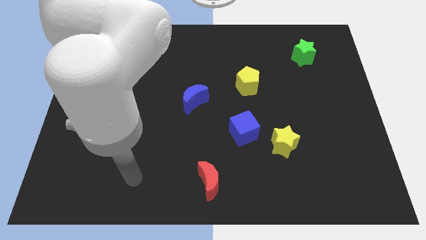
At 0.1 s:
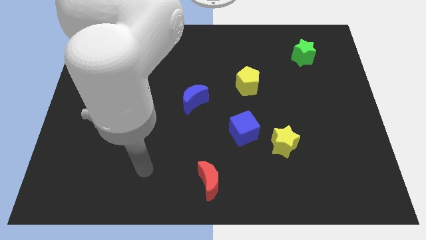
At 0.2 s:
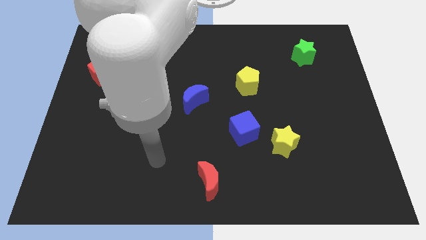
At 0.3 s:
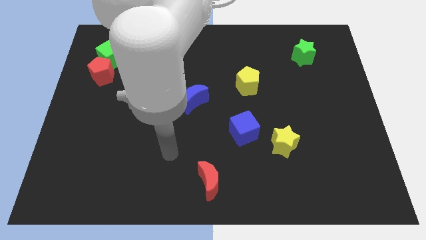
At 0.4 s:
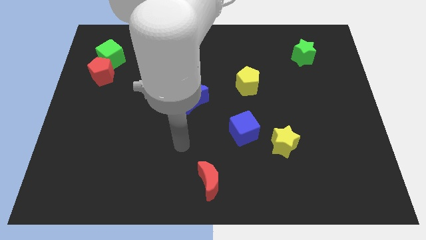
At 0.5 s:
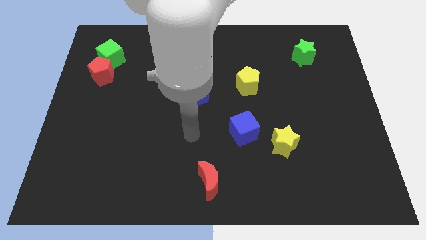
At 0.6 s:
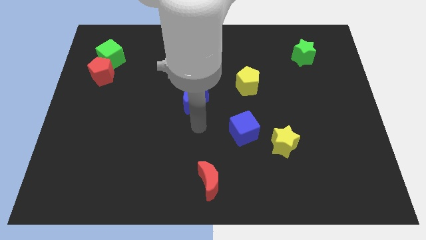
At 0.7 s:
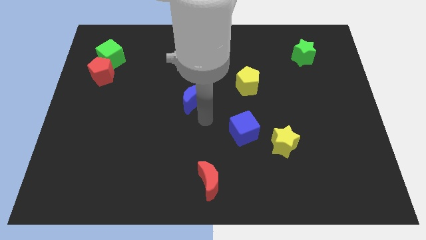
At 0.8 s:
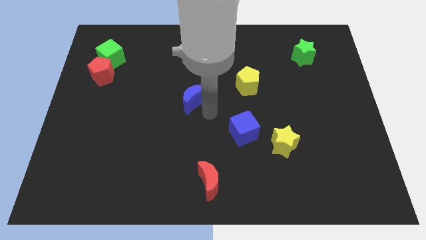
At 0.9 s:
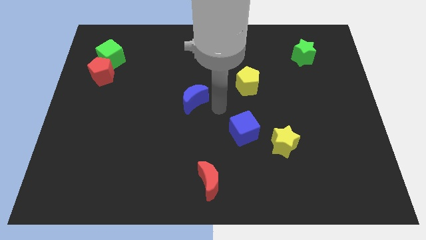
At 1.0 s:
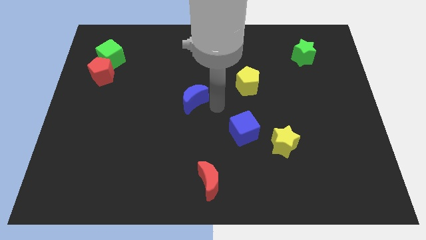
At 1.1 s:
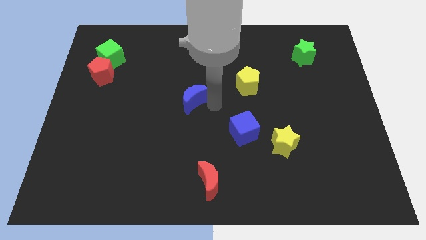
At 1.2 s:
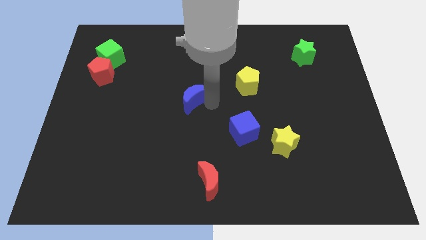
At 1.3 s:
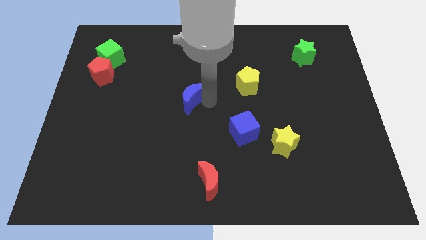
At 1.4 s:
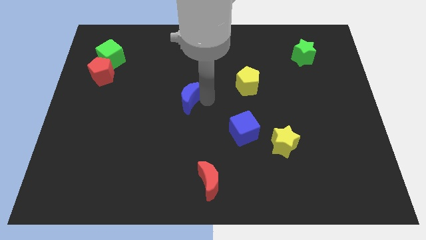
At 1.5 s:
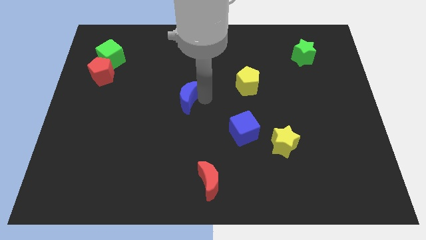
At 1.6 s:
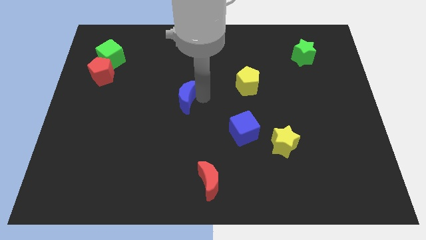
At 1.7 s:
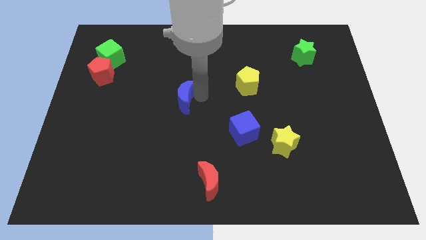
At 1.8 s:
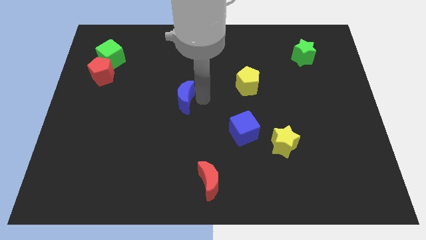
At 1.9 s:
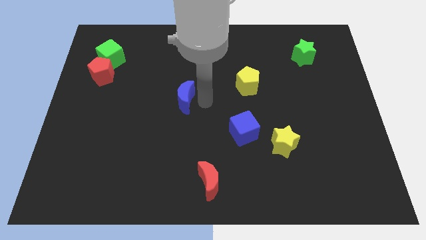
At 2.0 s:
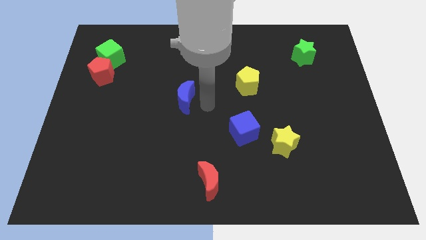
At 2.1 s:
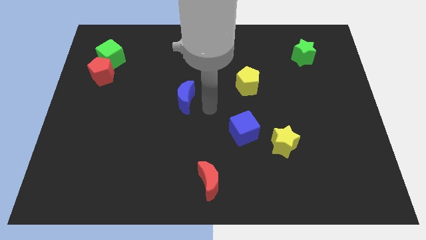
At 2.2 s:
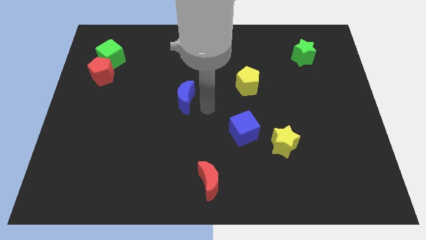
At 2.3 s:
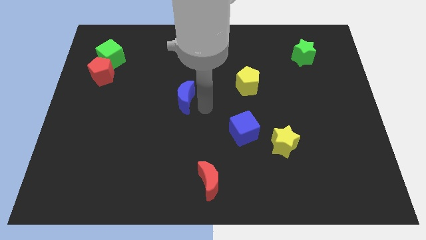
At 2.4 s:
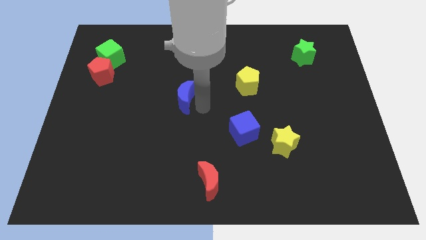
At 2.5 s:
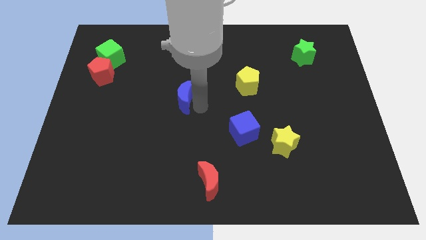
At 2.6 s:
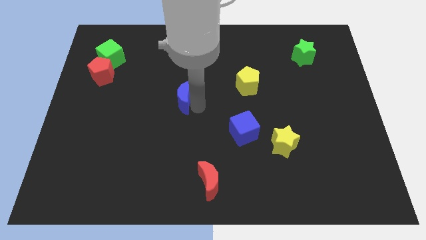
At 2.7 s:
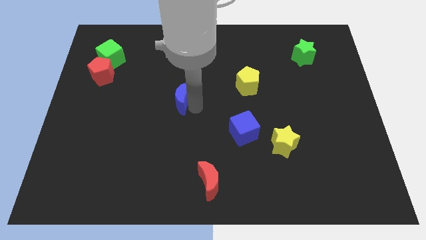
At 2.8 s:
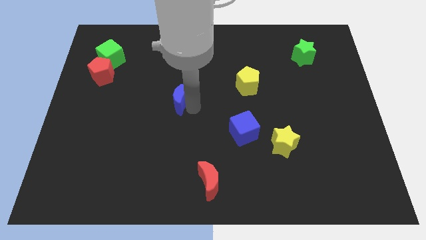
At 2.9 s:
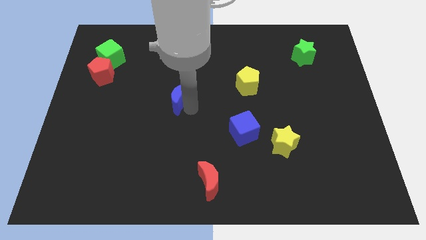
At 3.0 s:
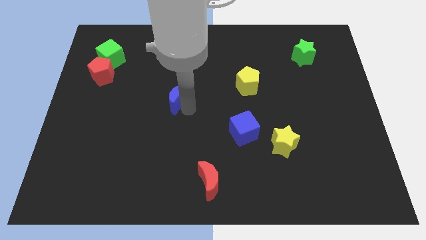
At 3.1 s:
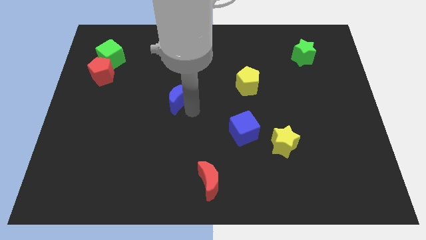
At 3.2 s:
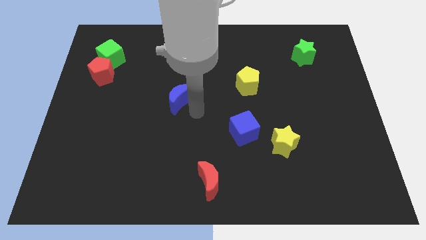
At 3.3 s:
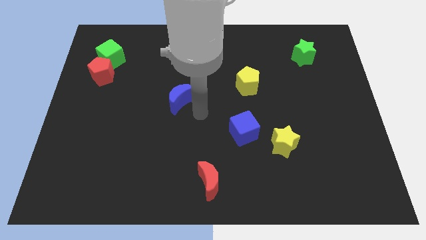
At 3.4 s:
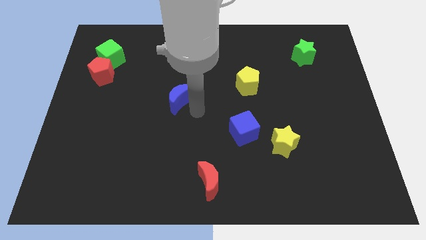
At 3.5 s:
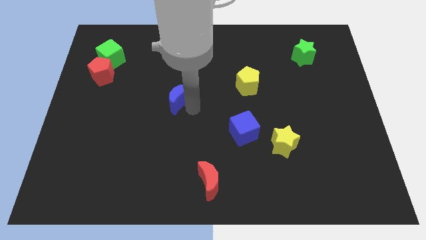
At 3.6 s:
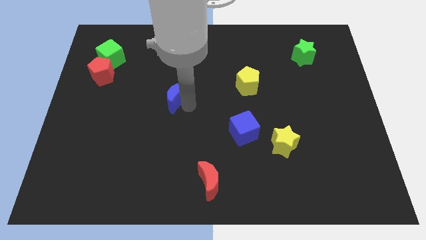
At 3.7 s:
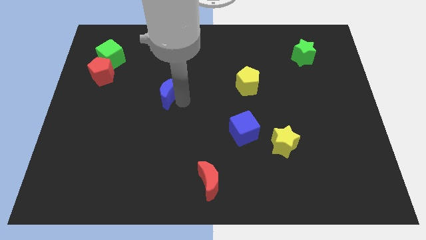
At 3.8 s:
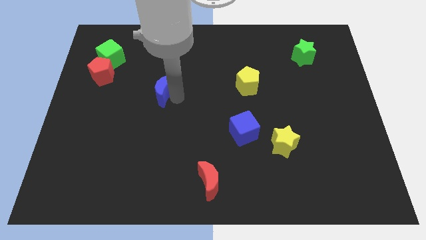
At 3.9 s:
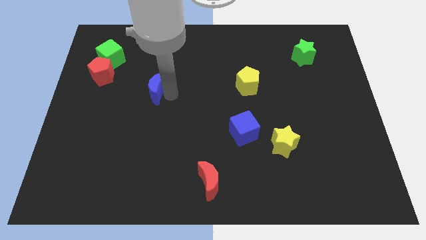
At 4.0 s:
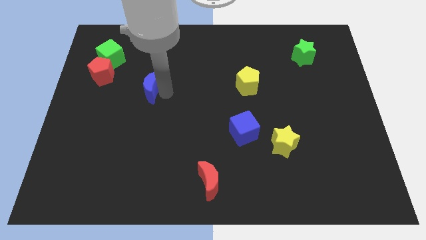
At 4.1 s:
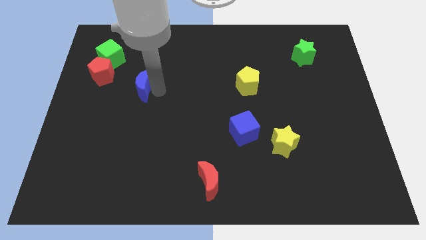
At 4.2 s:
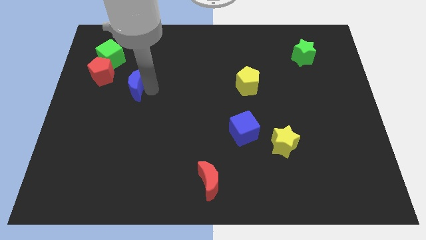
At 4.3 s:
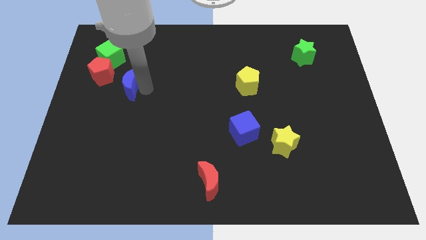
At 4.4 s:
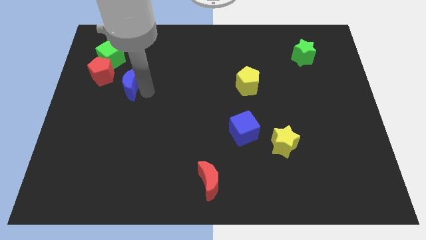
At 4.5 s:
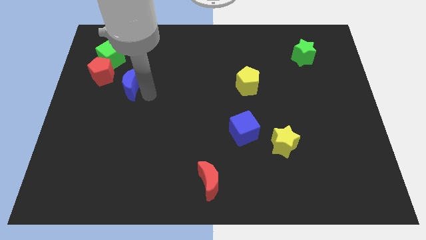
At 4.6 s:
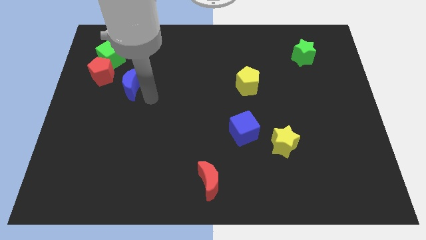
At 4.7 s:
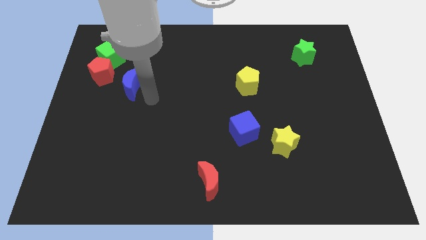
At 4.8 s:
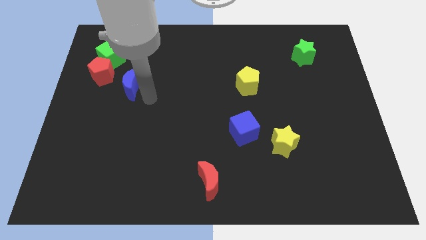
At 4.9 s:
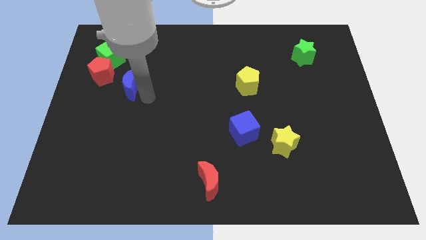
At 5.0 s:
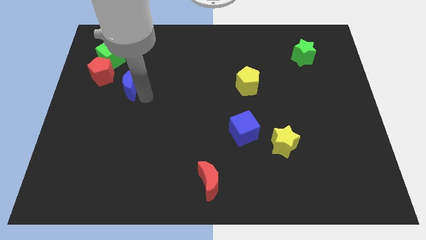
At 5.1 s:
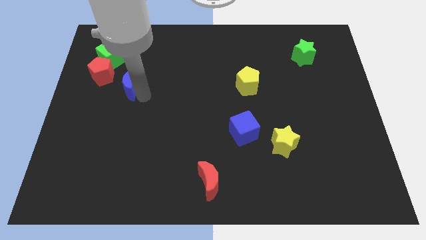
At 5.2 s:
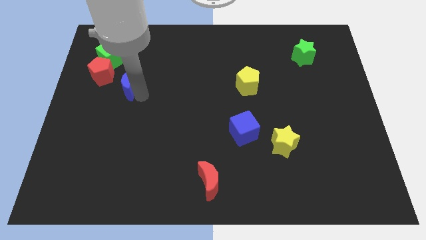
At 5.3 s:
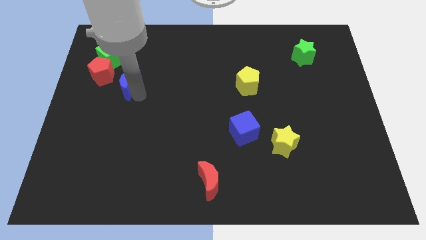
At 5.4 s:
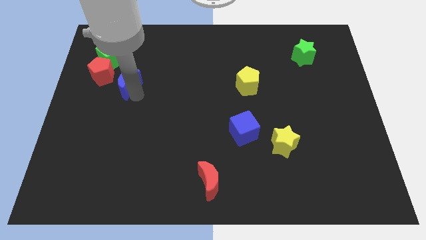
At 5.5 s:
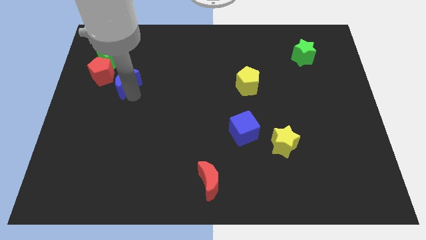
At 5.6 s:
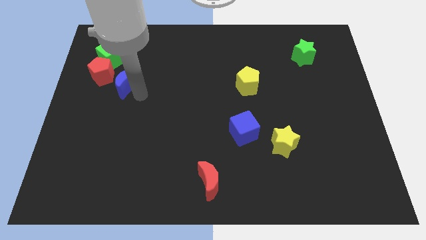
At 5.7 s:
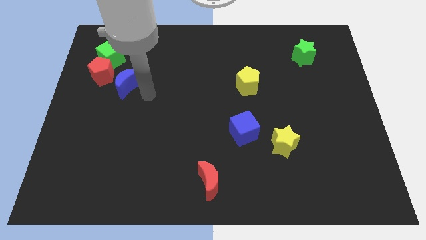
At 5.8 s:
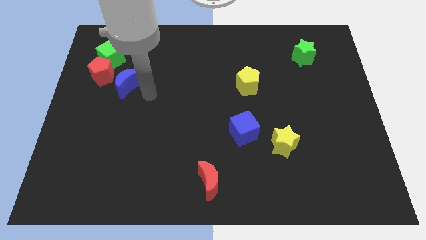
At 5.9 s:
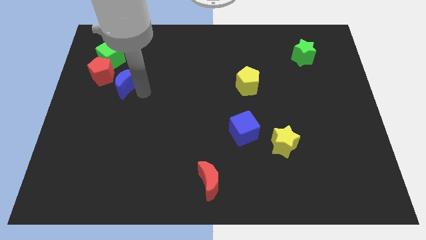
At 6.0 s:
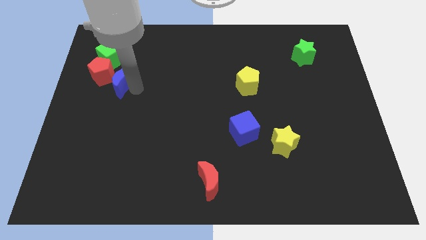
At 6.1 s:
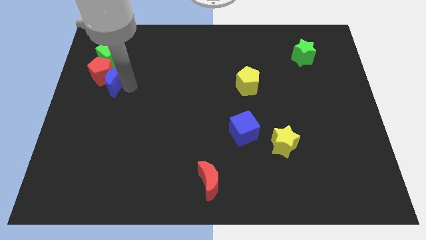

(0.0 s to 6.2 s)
slide the blue moon to the red pentagon

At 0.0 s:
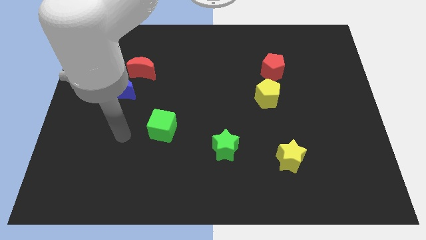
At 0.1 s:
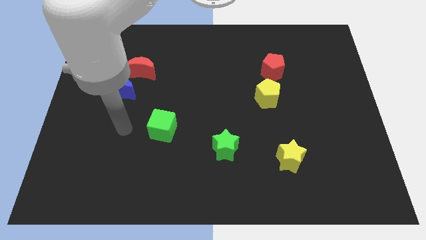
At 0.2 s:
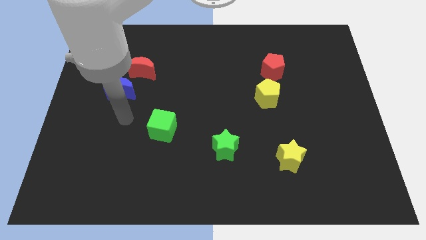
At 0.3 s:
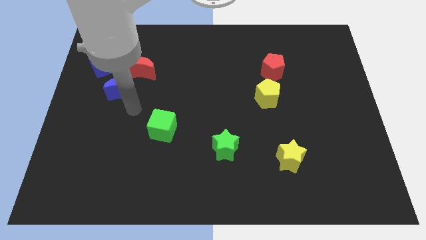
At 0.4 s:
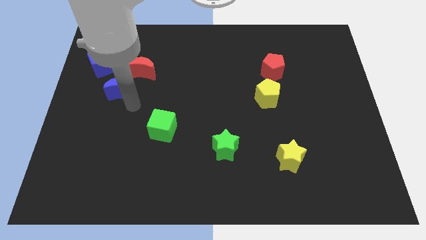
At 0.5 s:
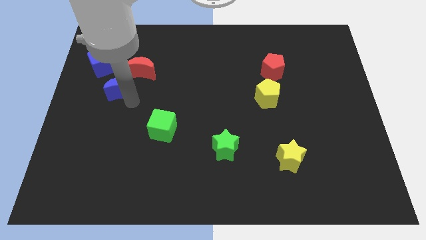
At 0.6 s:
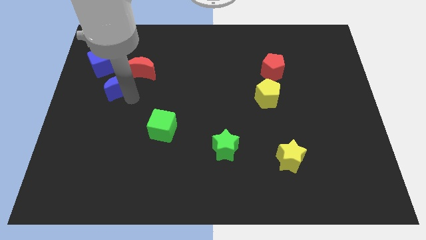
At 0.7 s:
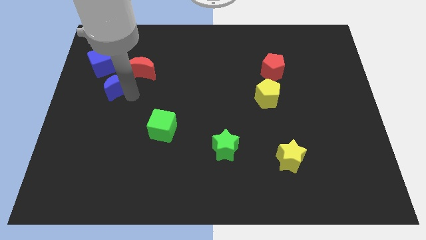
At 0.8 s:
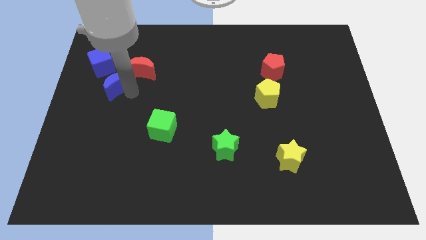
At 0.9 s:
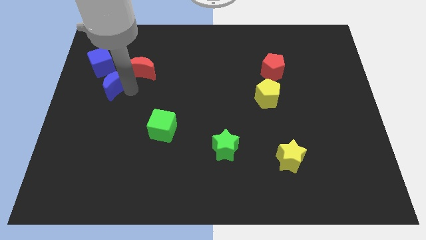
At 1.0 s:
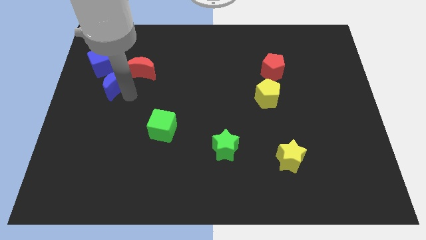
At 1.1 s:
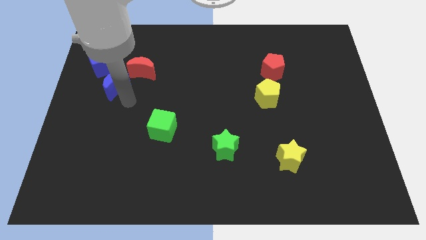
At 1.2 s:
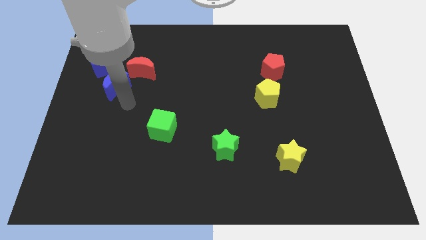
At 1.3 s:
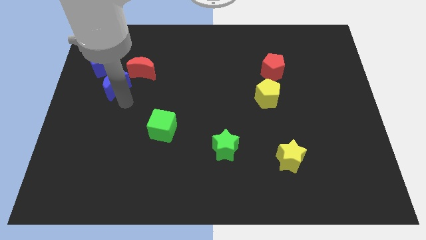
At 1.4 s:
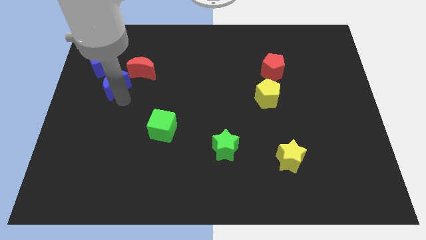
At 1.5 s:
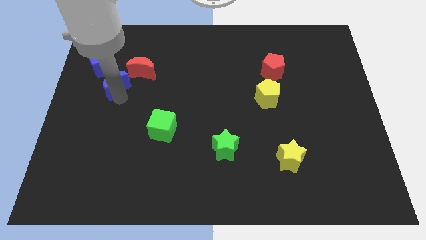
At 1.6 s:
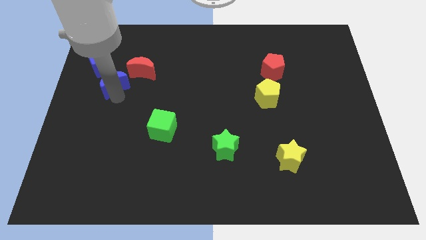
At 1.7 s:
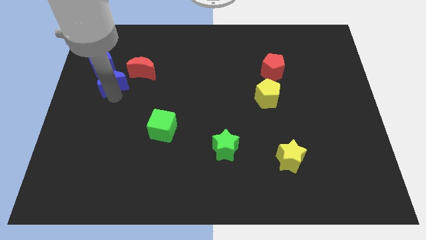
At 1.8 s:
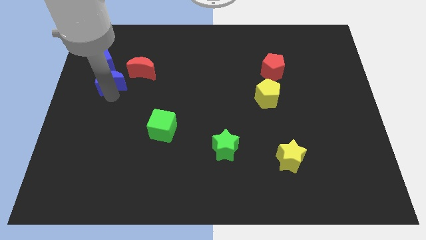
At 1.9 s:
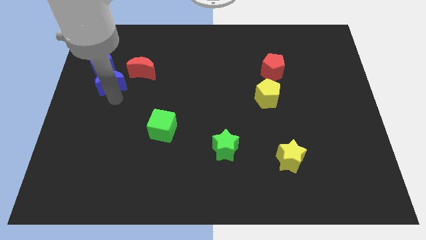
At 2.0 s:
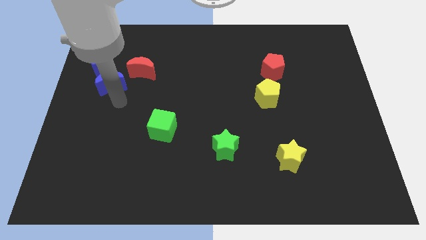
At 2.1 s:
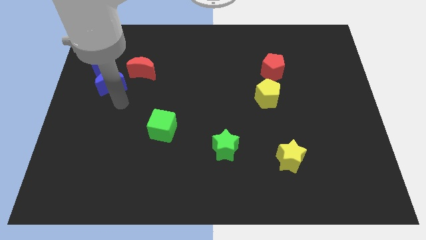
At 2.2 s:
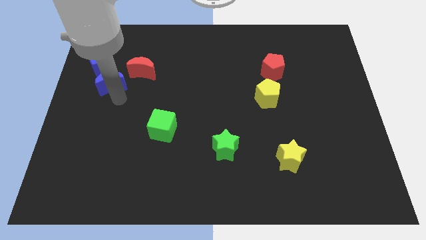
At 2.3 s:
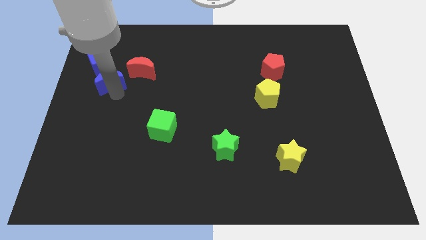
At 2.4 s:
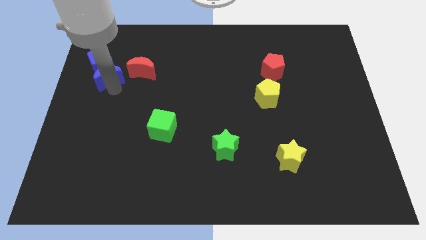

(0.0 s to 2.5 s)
slide the blue moon close to the blue cube
